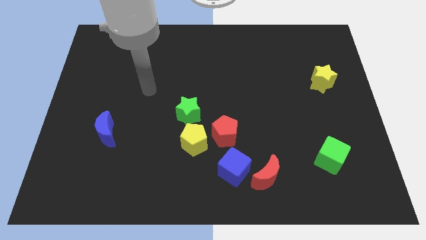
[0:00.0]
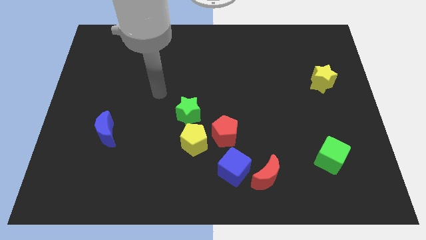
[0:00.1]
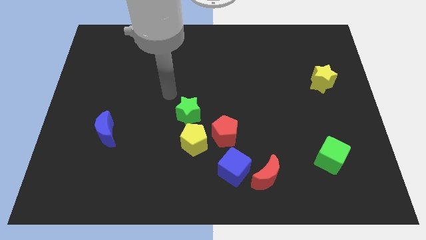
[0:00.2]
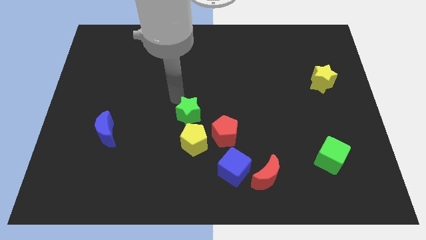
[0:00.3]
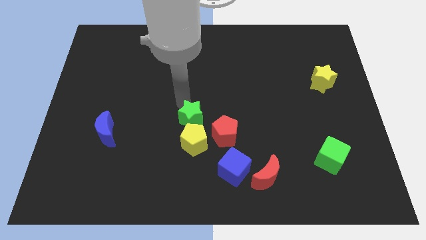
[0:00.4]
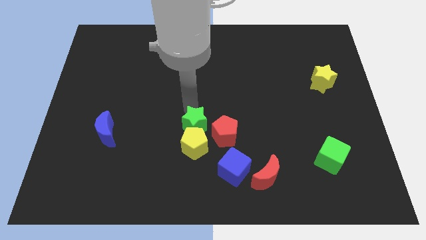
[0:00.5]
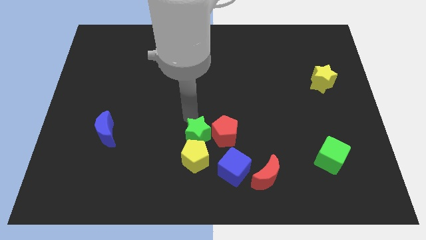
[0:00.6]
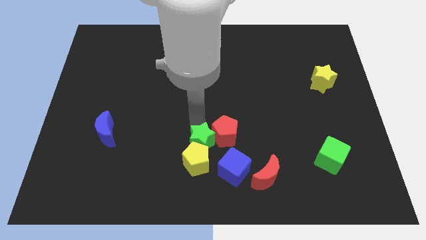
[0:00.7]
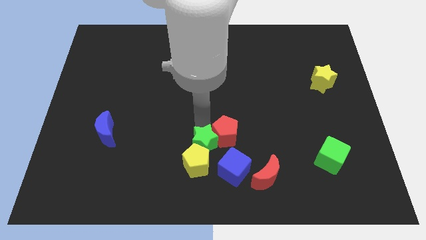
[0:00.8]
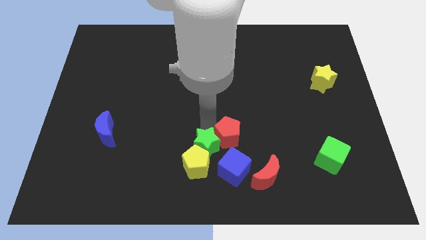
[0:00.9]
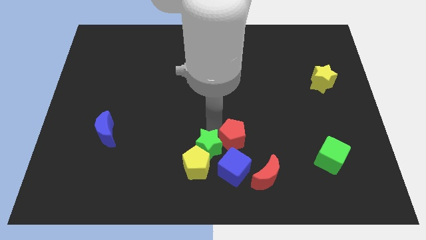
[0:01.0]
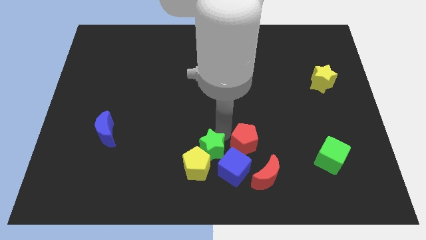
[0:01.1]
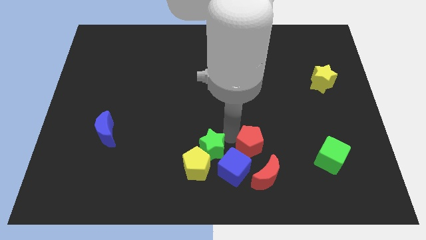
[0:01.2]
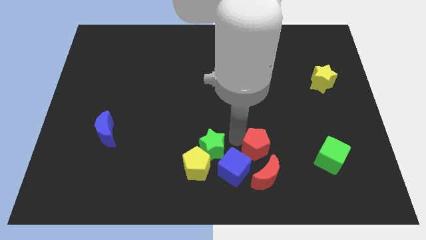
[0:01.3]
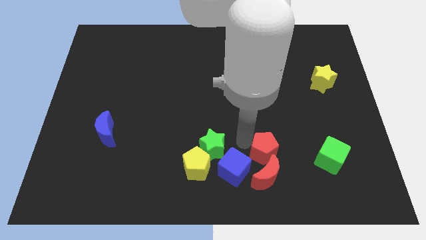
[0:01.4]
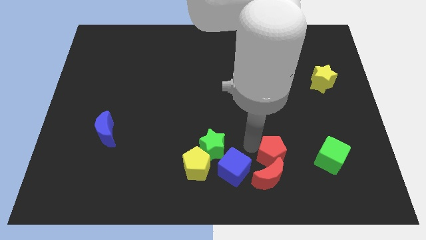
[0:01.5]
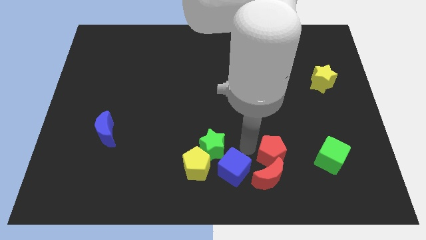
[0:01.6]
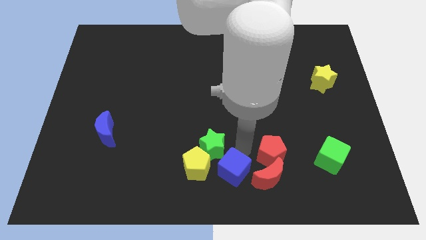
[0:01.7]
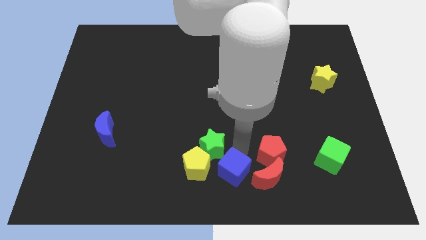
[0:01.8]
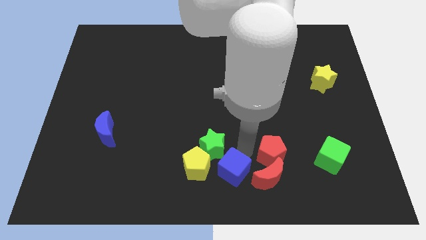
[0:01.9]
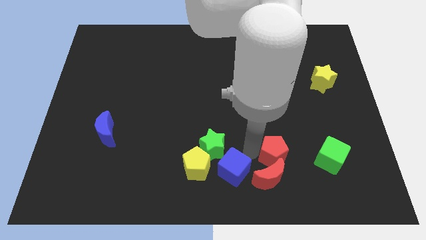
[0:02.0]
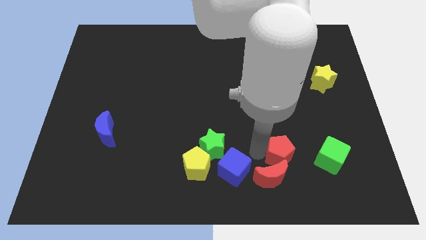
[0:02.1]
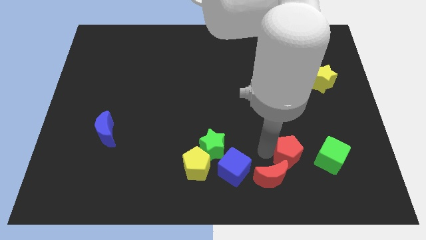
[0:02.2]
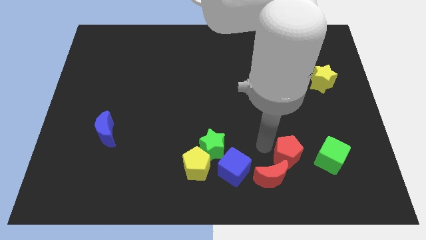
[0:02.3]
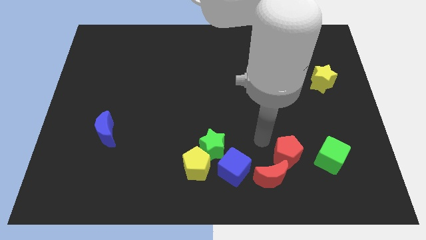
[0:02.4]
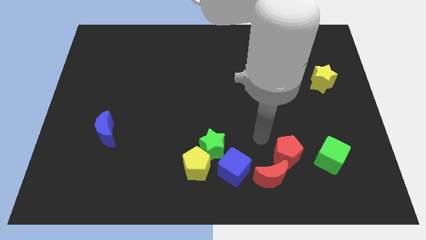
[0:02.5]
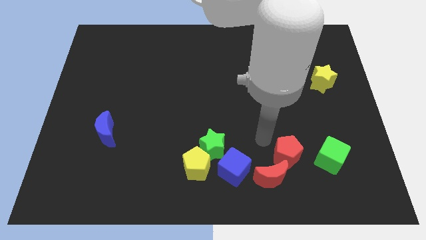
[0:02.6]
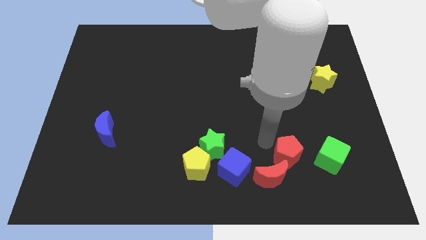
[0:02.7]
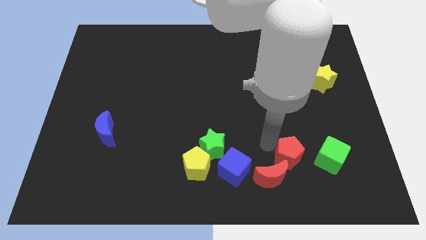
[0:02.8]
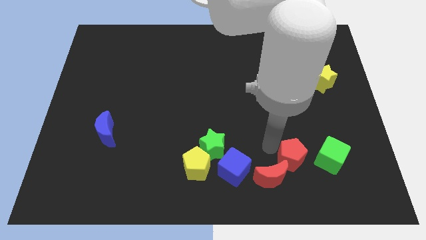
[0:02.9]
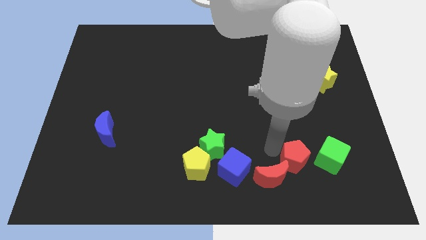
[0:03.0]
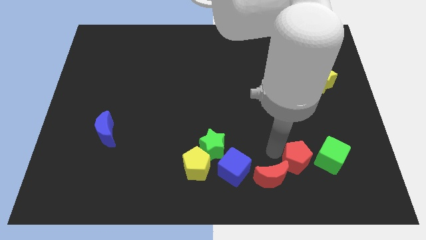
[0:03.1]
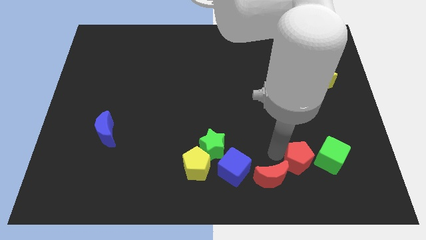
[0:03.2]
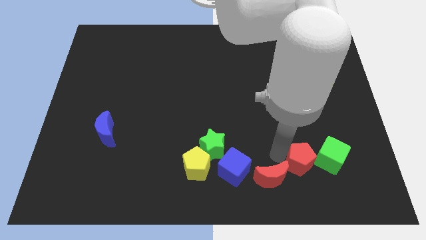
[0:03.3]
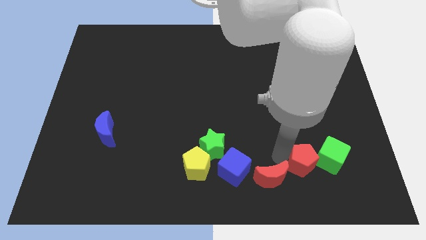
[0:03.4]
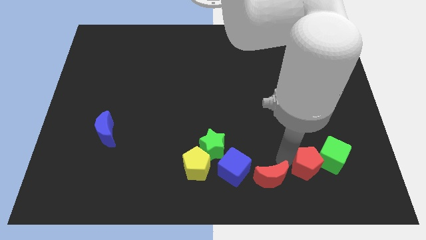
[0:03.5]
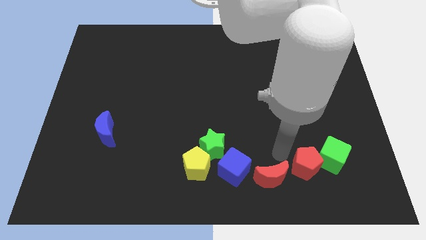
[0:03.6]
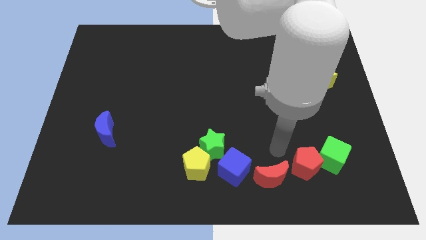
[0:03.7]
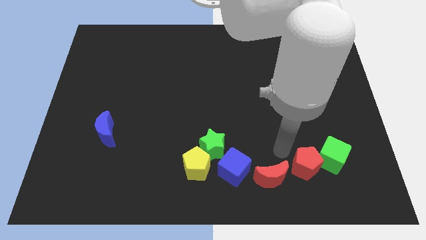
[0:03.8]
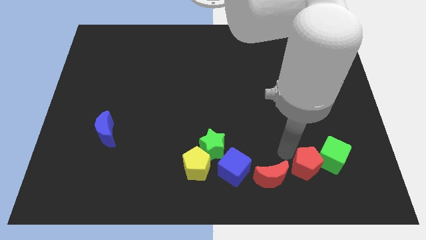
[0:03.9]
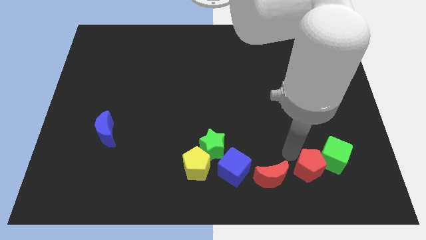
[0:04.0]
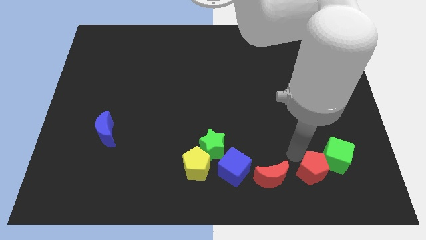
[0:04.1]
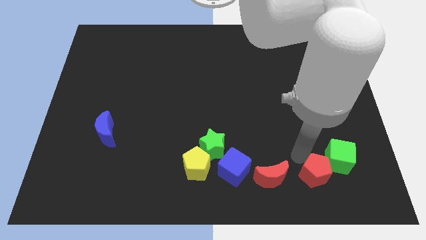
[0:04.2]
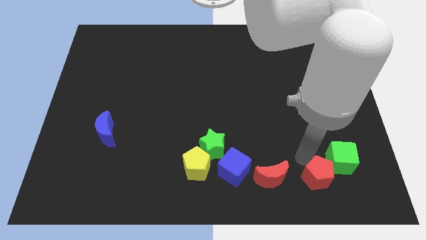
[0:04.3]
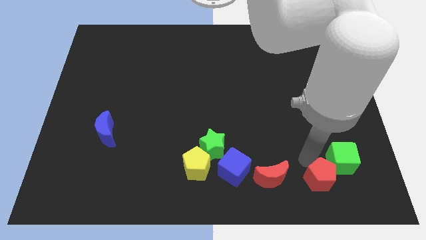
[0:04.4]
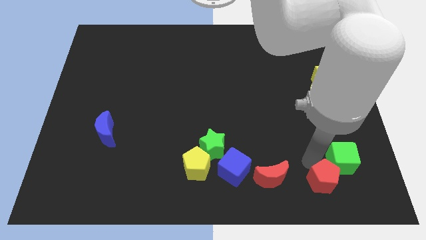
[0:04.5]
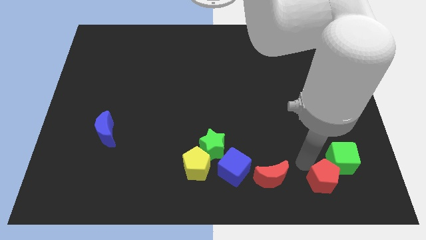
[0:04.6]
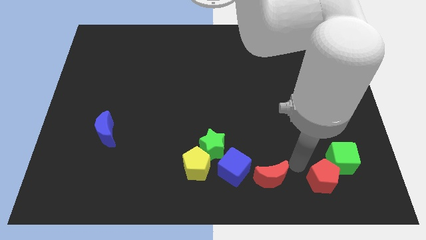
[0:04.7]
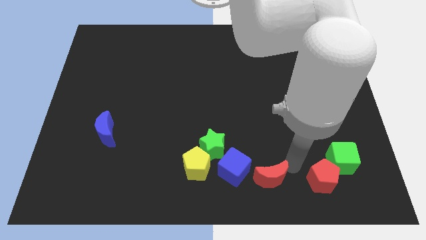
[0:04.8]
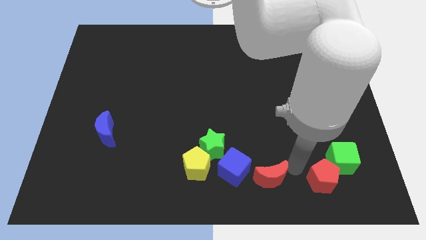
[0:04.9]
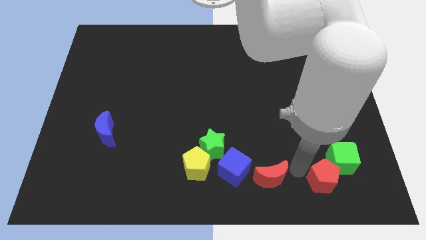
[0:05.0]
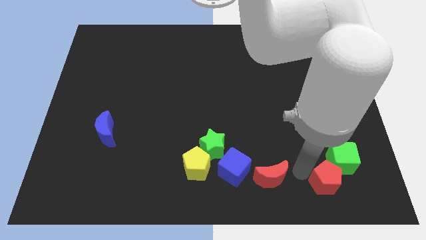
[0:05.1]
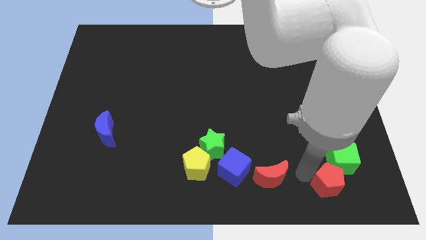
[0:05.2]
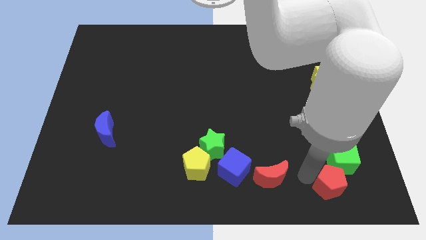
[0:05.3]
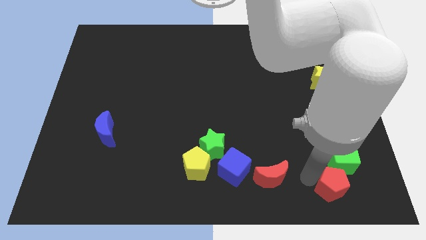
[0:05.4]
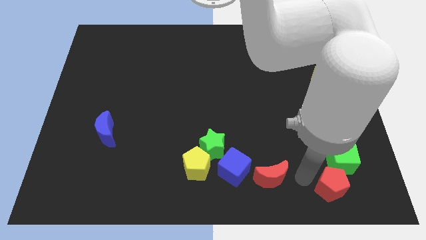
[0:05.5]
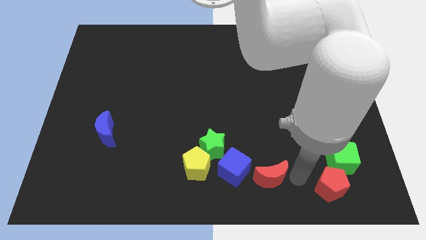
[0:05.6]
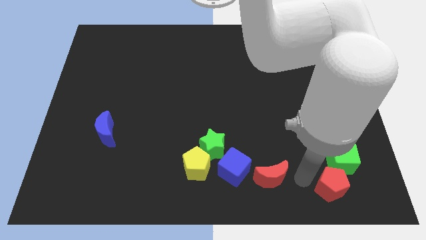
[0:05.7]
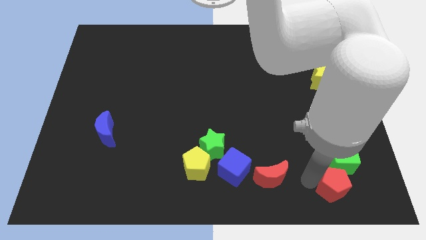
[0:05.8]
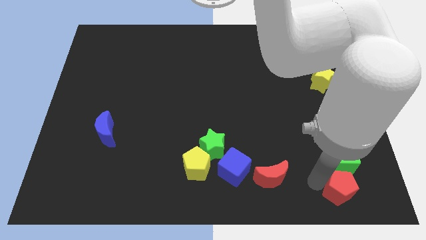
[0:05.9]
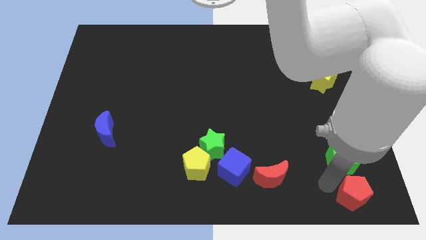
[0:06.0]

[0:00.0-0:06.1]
put the red pentagon to the lower right corner

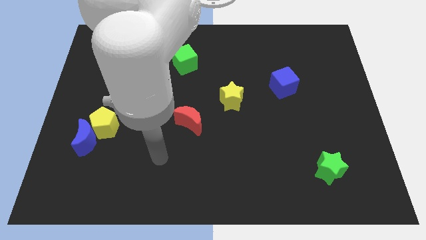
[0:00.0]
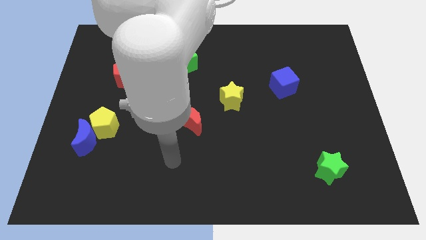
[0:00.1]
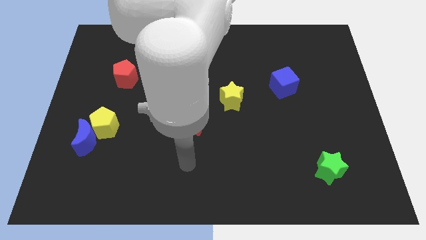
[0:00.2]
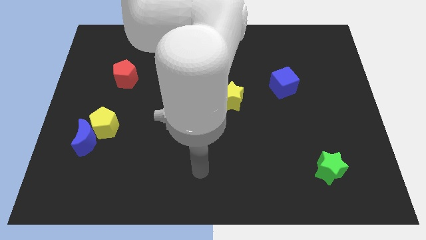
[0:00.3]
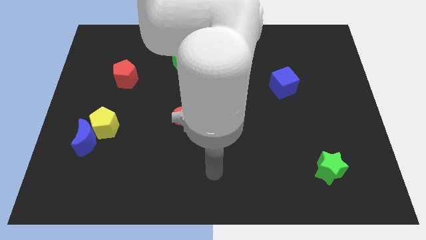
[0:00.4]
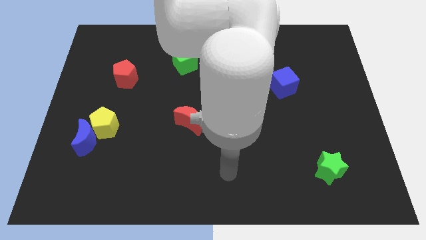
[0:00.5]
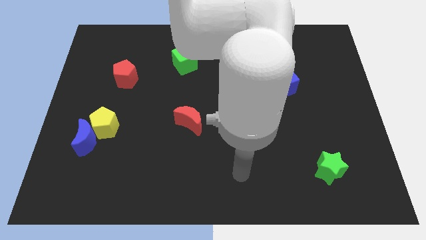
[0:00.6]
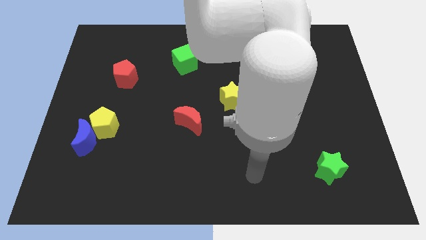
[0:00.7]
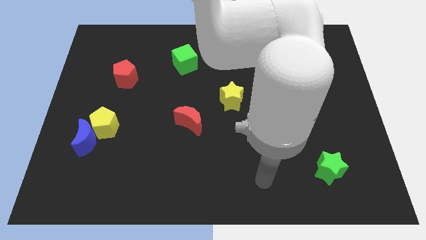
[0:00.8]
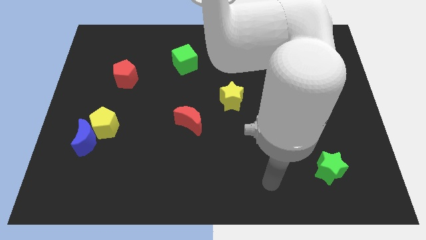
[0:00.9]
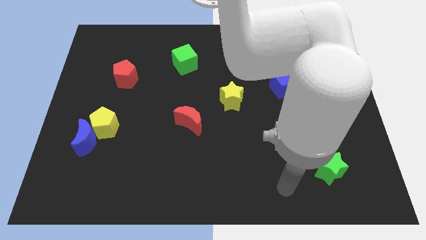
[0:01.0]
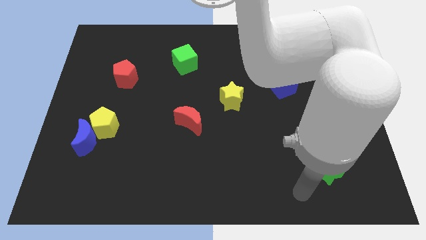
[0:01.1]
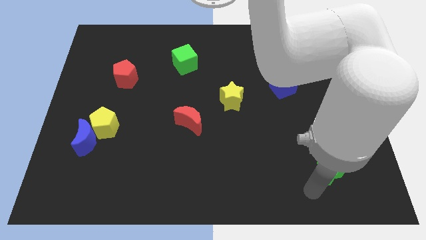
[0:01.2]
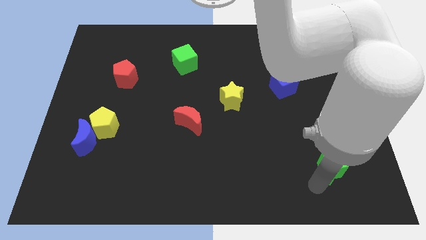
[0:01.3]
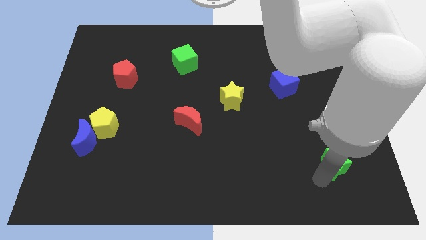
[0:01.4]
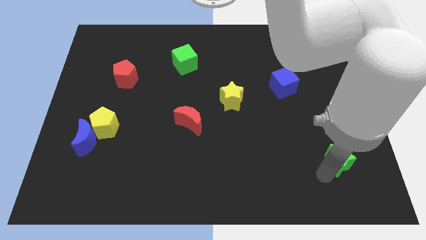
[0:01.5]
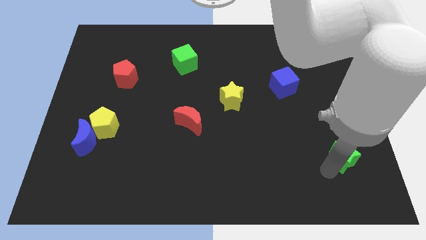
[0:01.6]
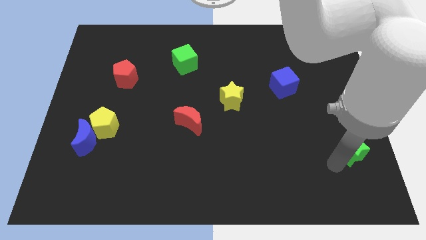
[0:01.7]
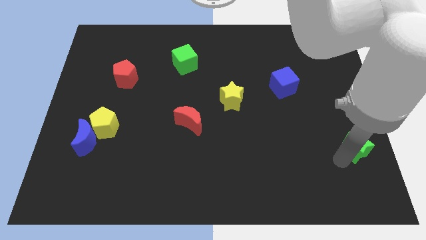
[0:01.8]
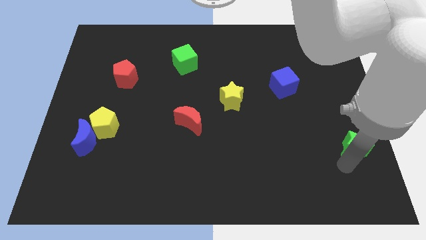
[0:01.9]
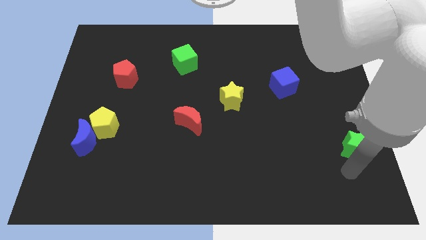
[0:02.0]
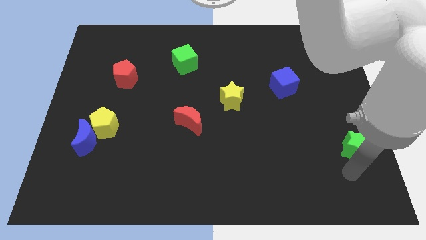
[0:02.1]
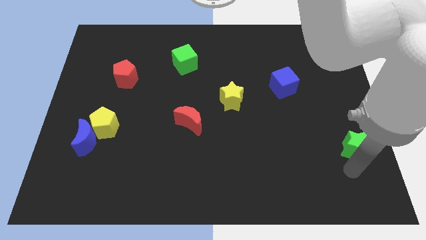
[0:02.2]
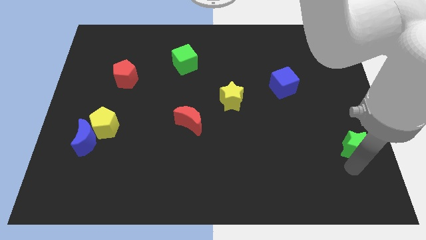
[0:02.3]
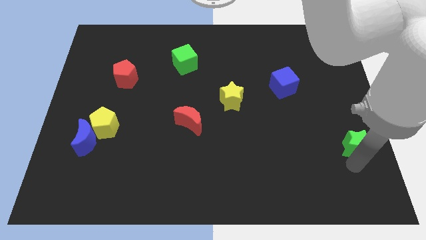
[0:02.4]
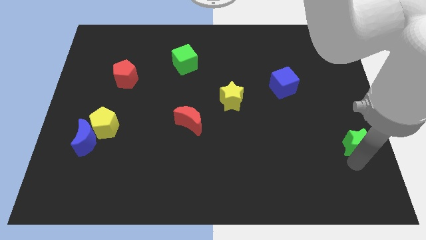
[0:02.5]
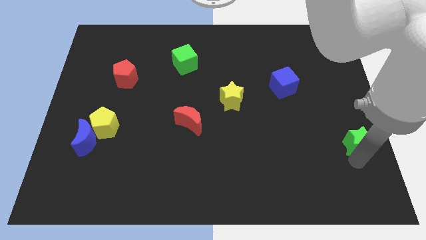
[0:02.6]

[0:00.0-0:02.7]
slide the green star to the center right
